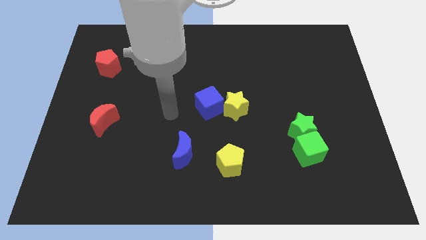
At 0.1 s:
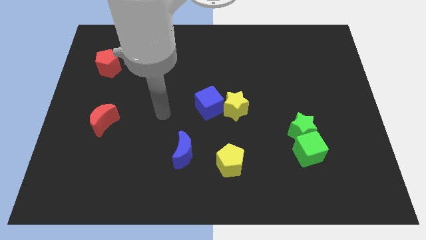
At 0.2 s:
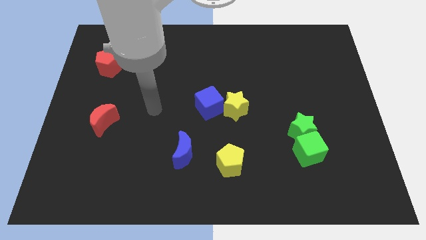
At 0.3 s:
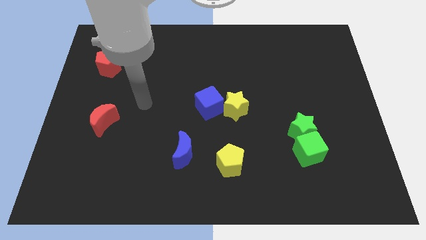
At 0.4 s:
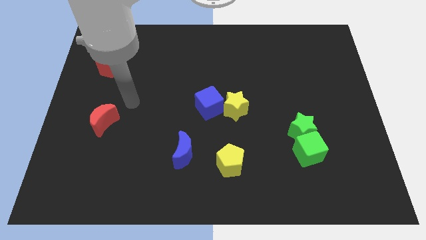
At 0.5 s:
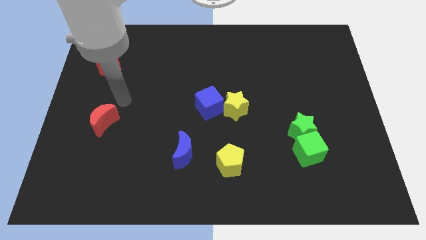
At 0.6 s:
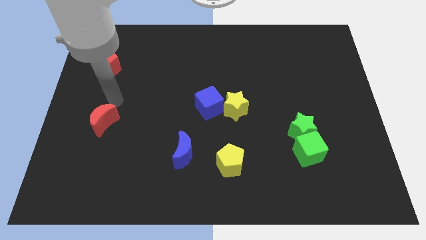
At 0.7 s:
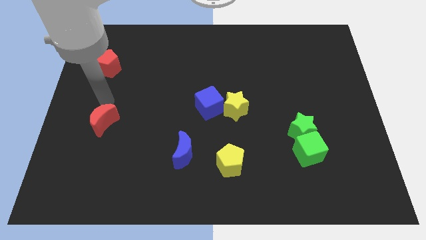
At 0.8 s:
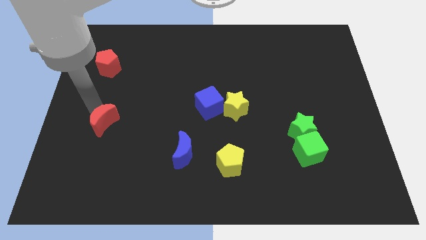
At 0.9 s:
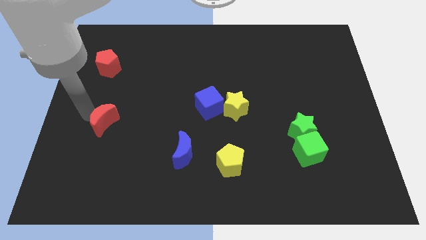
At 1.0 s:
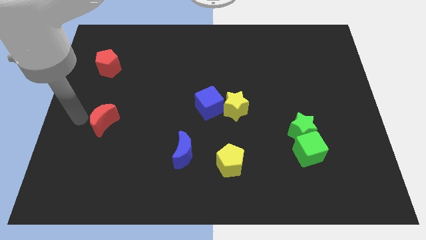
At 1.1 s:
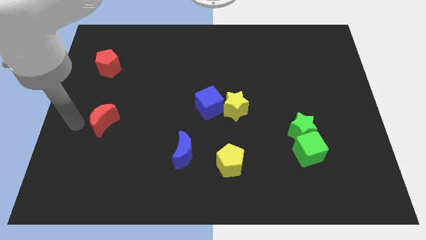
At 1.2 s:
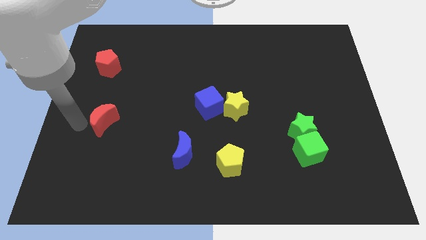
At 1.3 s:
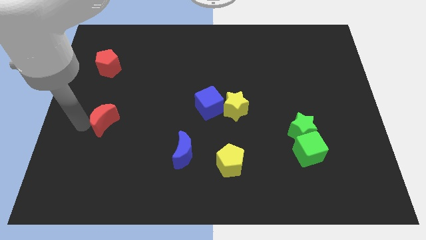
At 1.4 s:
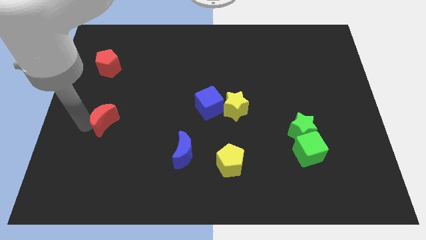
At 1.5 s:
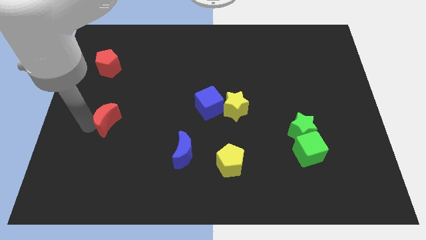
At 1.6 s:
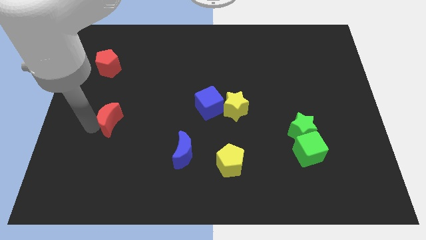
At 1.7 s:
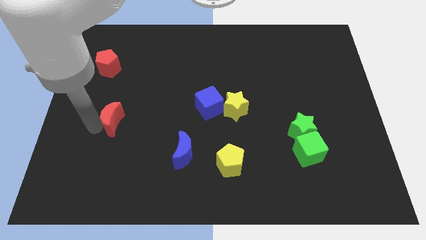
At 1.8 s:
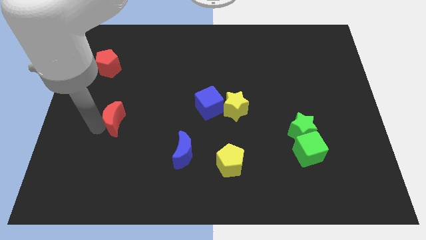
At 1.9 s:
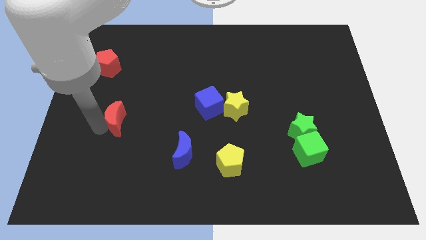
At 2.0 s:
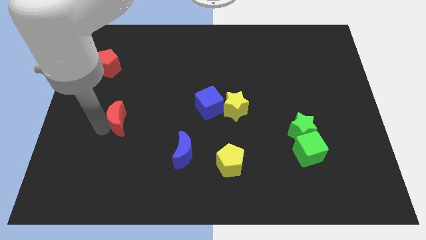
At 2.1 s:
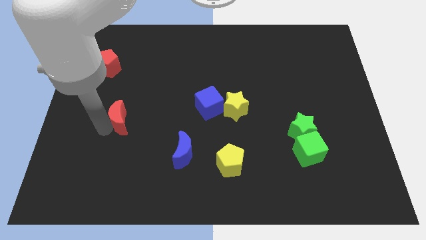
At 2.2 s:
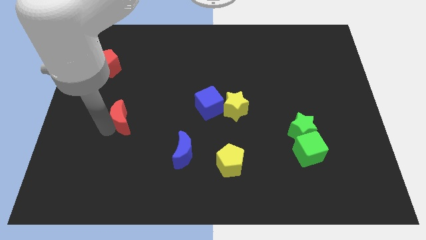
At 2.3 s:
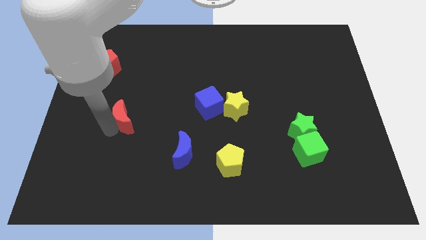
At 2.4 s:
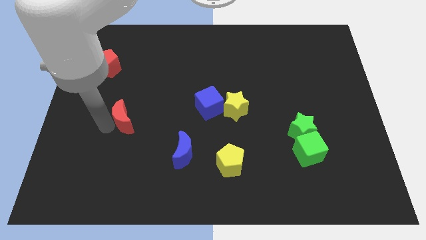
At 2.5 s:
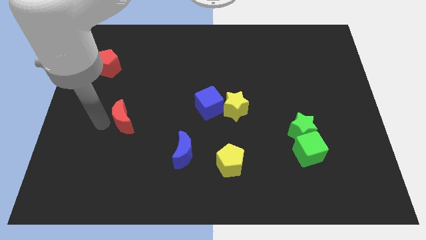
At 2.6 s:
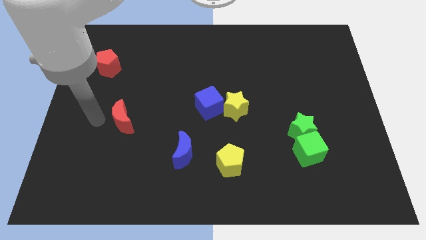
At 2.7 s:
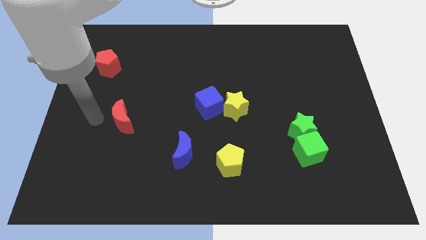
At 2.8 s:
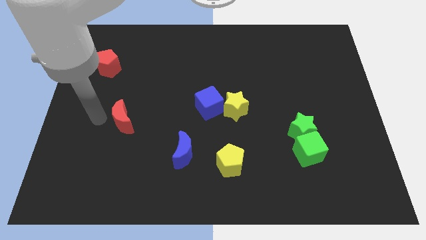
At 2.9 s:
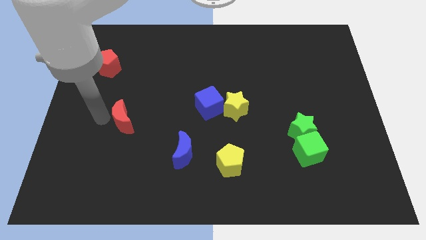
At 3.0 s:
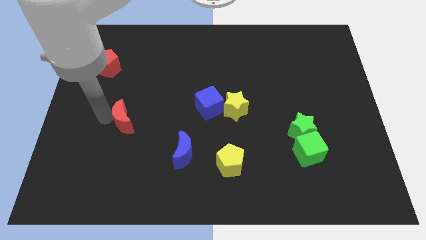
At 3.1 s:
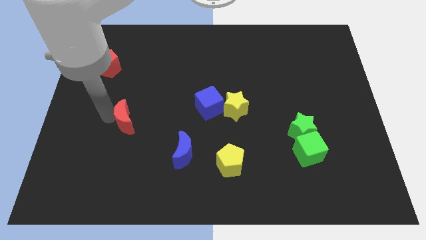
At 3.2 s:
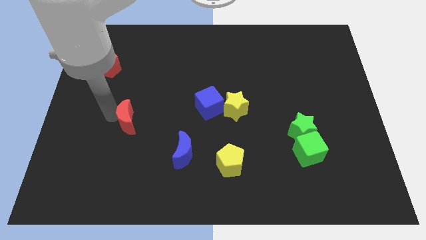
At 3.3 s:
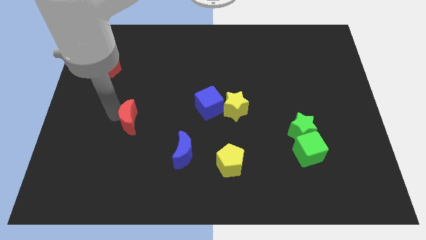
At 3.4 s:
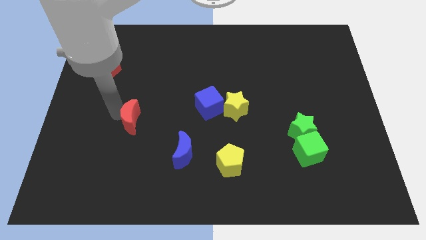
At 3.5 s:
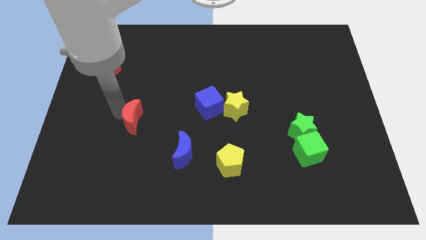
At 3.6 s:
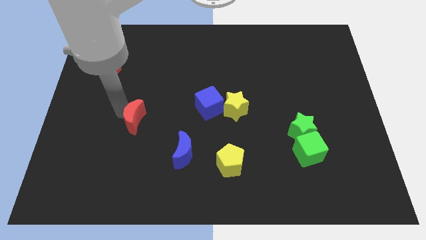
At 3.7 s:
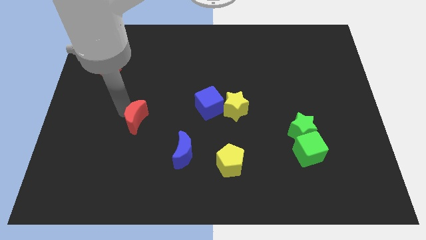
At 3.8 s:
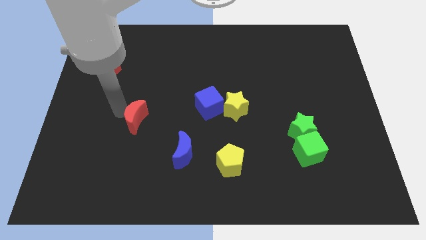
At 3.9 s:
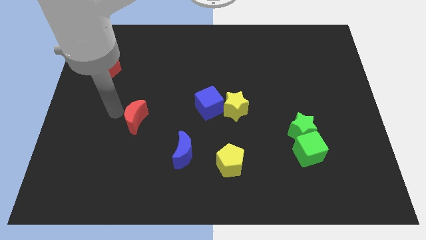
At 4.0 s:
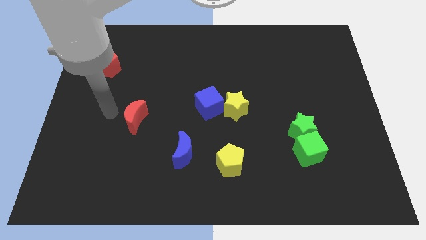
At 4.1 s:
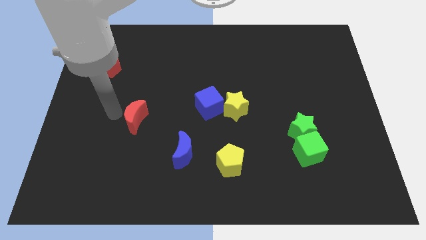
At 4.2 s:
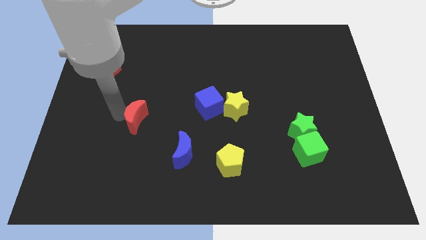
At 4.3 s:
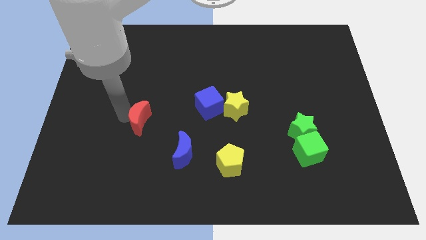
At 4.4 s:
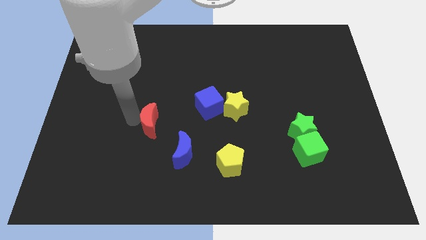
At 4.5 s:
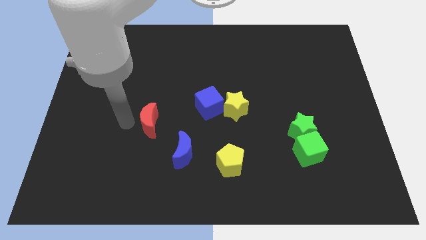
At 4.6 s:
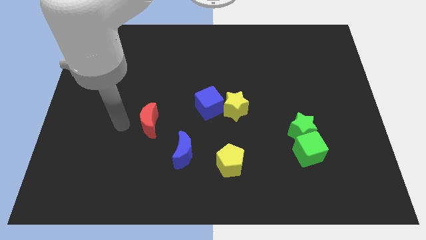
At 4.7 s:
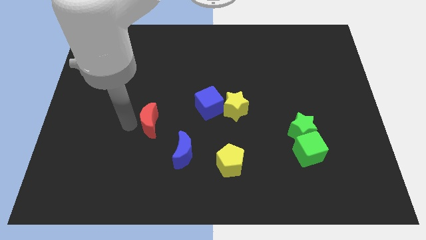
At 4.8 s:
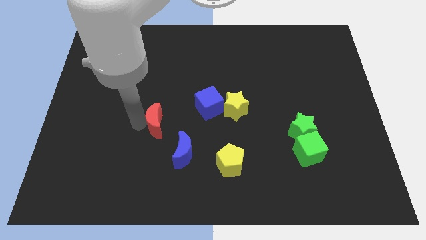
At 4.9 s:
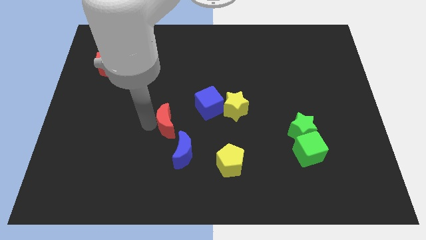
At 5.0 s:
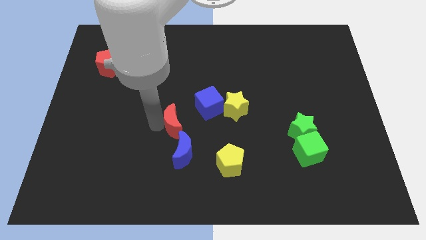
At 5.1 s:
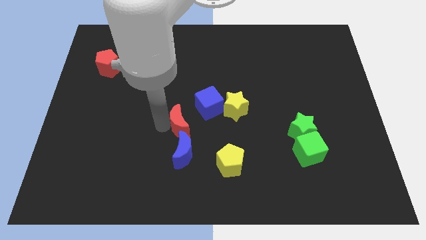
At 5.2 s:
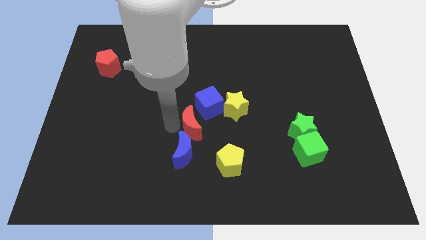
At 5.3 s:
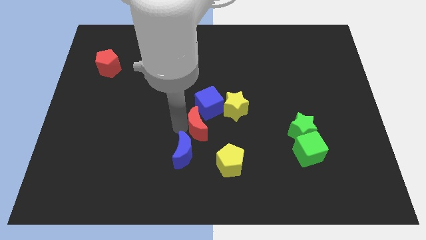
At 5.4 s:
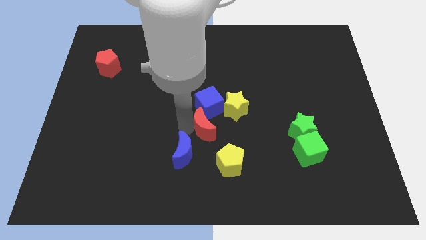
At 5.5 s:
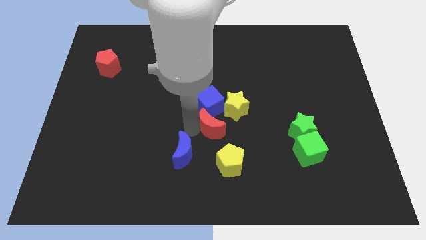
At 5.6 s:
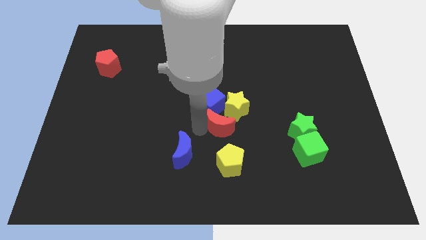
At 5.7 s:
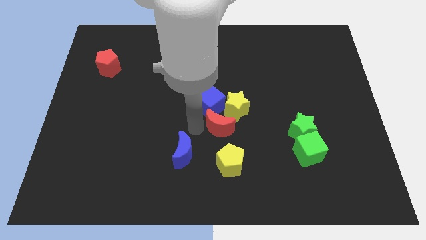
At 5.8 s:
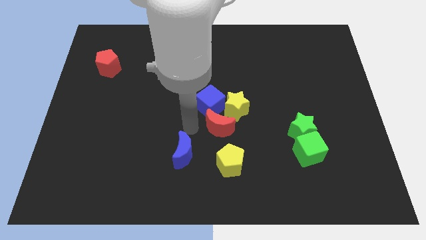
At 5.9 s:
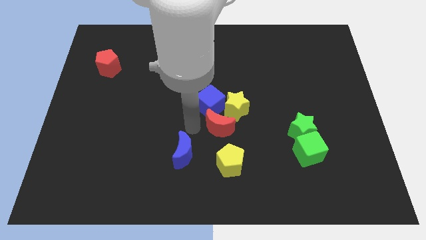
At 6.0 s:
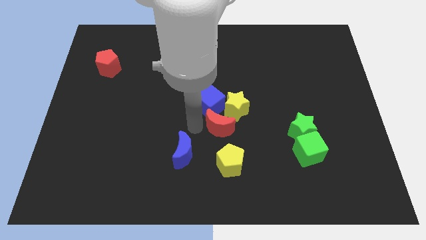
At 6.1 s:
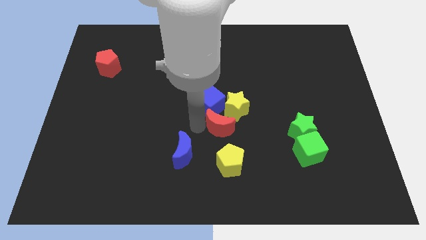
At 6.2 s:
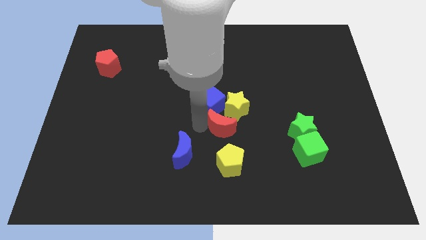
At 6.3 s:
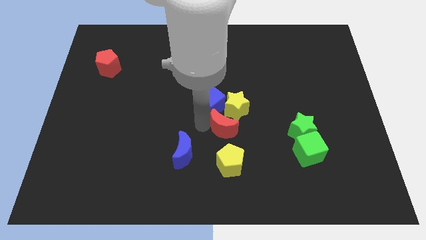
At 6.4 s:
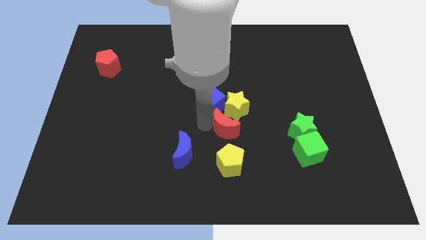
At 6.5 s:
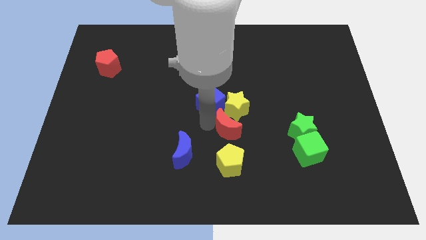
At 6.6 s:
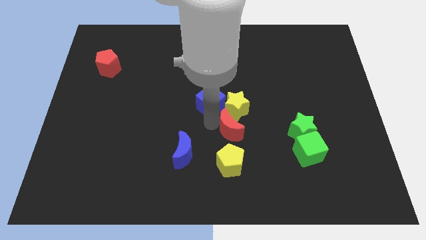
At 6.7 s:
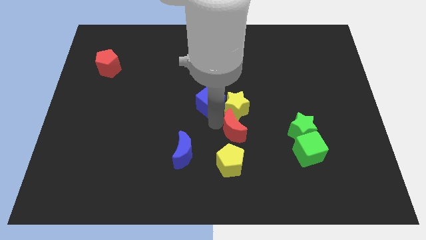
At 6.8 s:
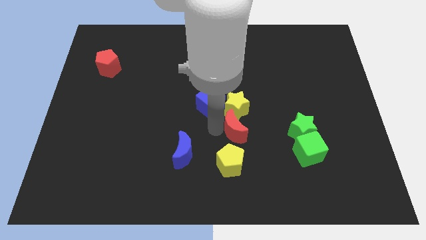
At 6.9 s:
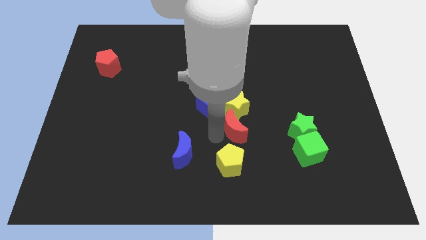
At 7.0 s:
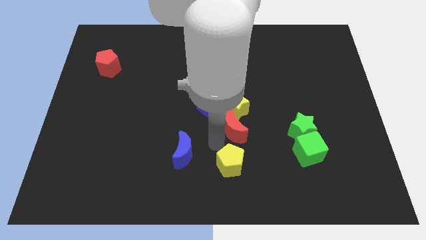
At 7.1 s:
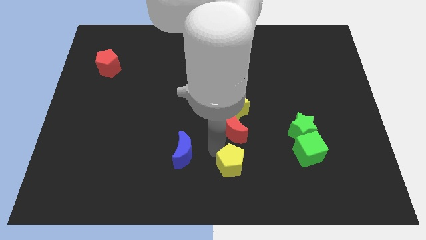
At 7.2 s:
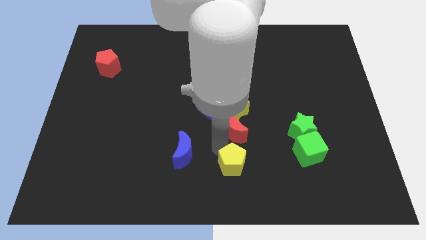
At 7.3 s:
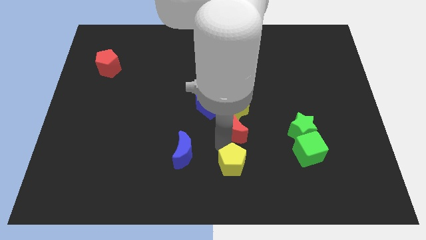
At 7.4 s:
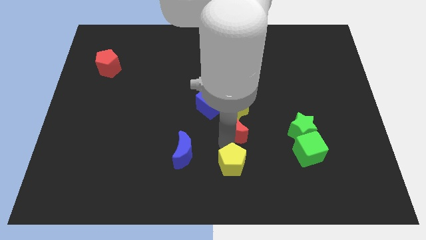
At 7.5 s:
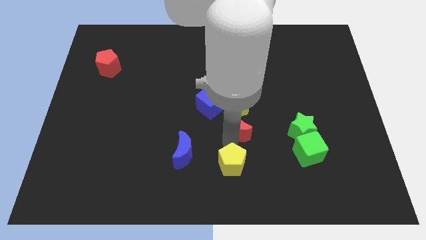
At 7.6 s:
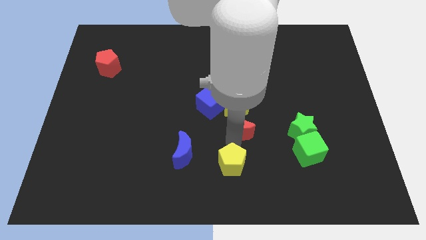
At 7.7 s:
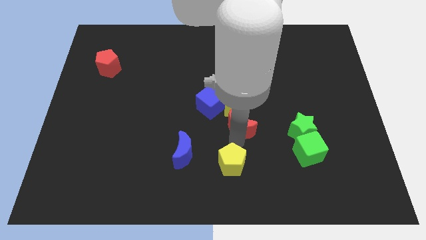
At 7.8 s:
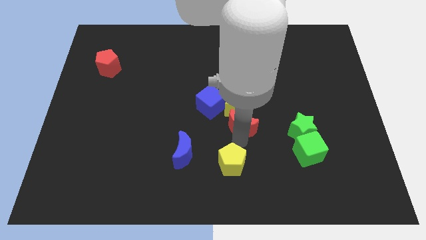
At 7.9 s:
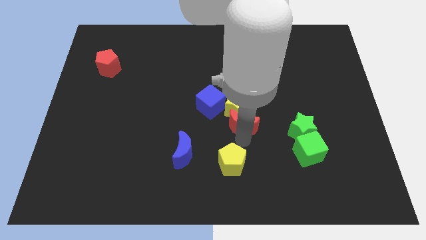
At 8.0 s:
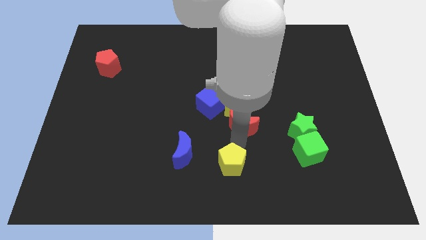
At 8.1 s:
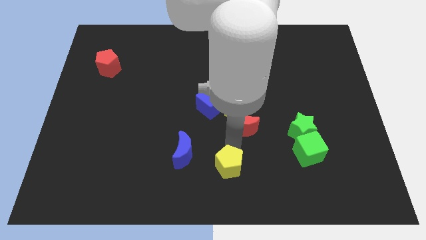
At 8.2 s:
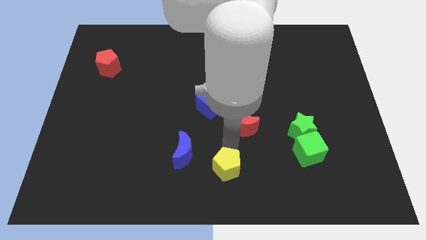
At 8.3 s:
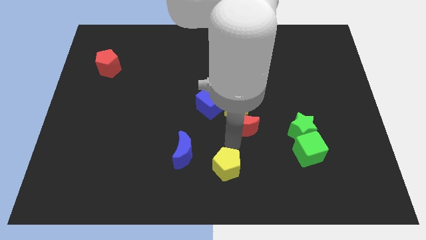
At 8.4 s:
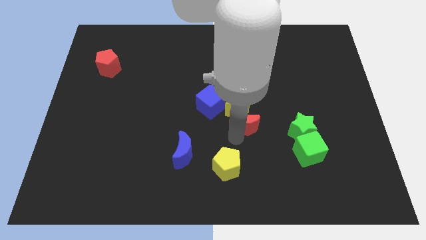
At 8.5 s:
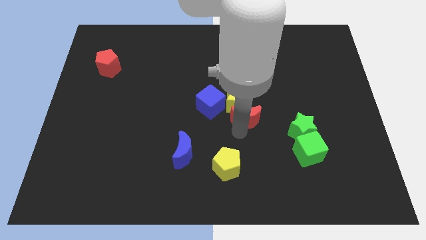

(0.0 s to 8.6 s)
push the red moon right of the blue cube
